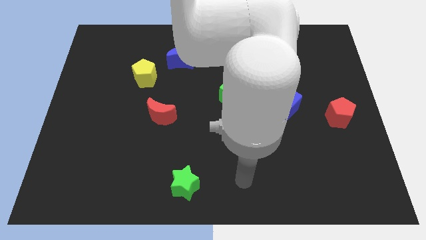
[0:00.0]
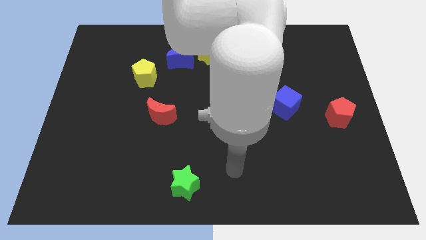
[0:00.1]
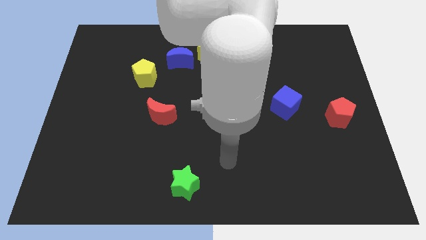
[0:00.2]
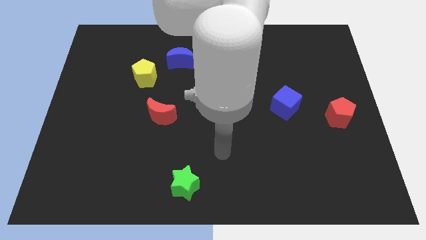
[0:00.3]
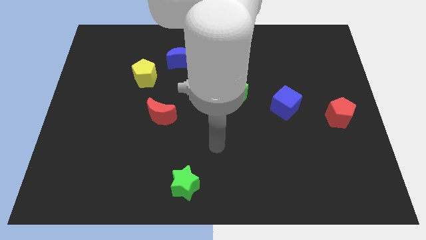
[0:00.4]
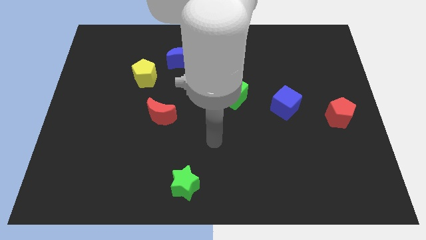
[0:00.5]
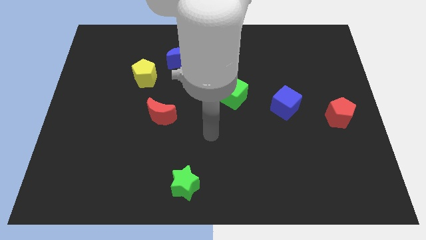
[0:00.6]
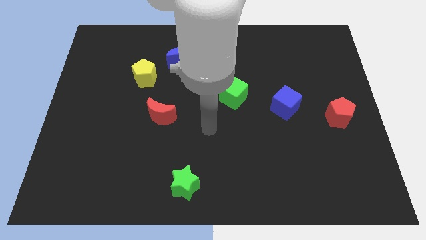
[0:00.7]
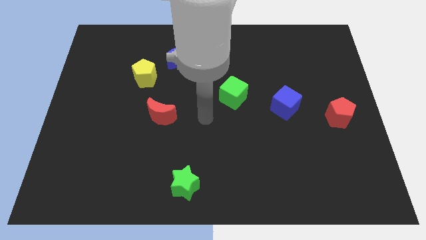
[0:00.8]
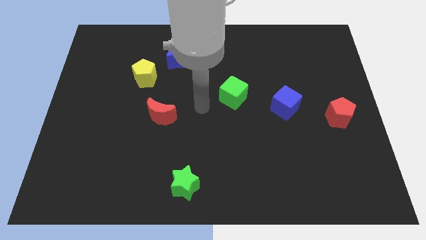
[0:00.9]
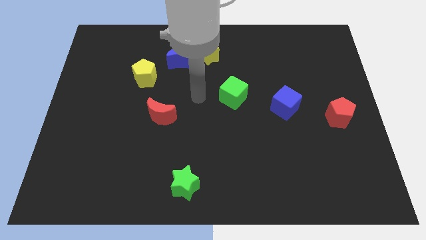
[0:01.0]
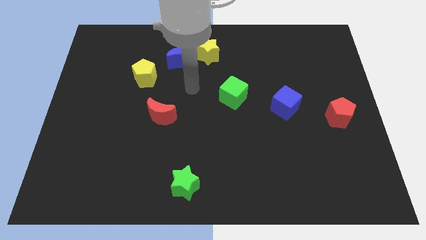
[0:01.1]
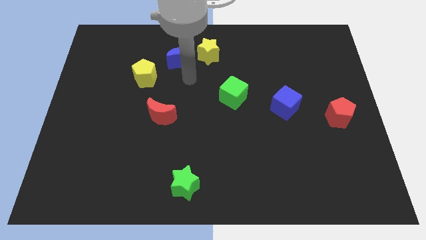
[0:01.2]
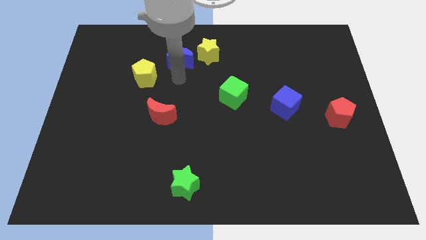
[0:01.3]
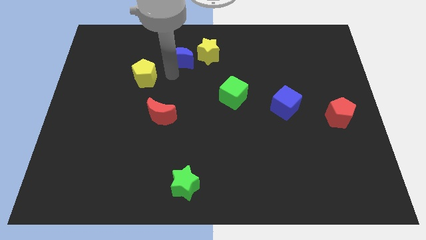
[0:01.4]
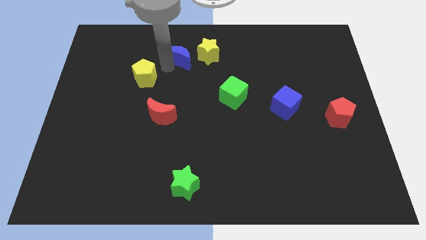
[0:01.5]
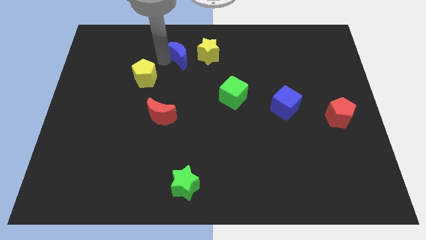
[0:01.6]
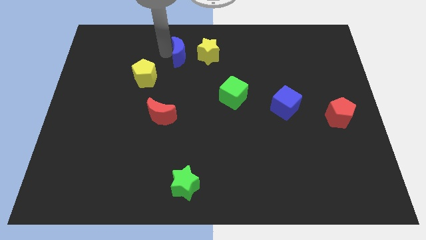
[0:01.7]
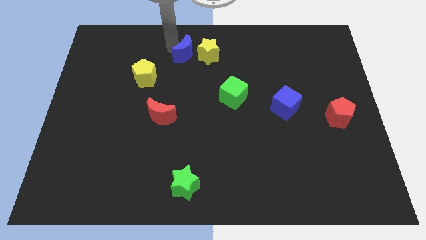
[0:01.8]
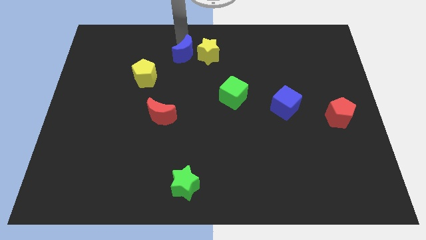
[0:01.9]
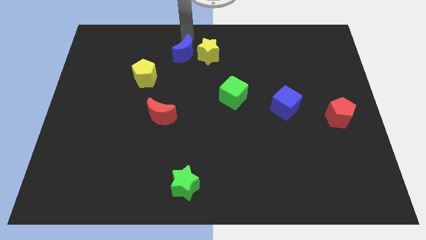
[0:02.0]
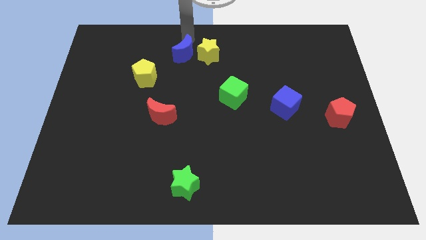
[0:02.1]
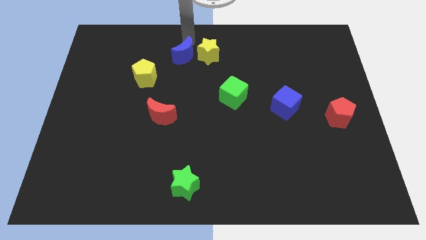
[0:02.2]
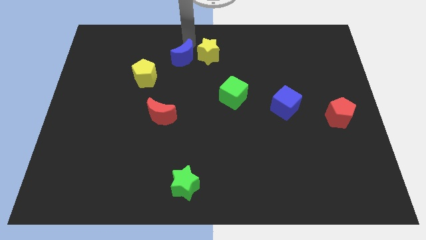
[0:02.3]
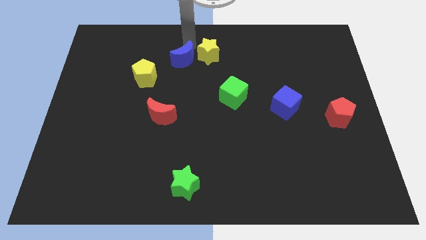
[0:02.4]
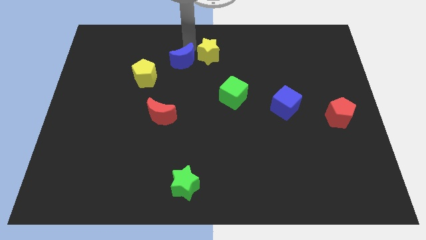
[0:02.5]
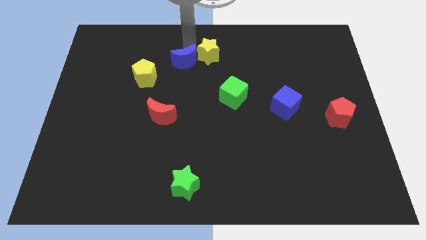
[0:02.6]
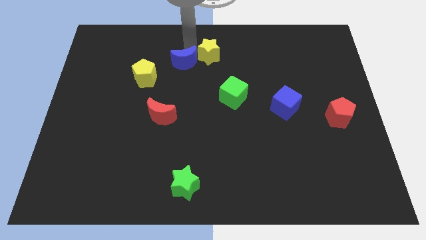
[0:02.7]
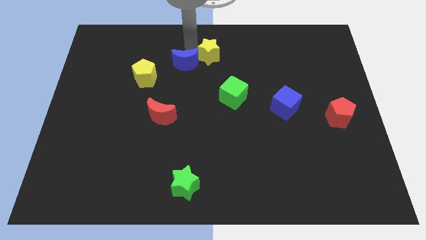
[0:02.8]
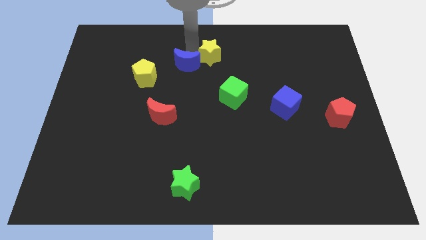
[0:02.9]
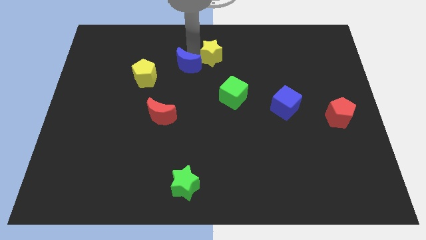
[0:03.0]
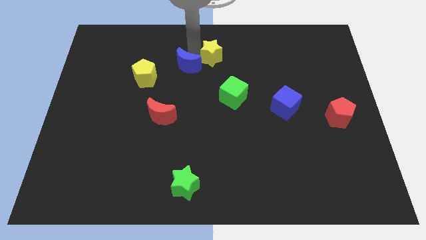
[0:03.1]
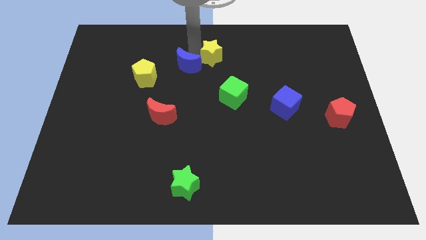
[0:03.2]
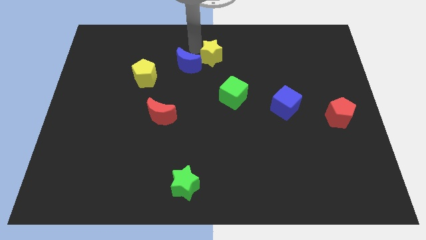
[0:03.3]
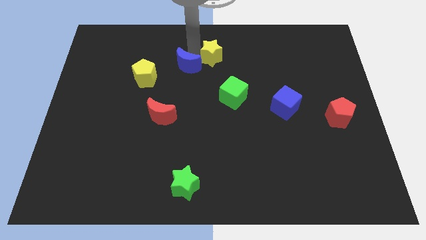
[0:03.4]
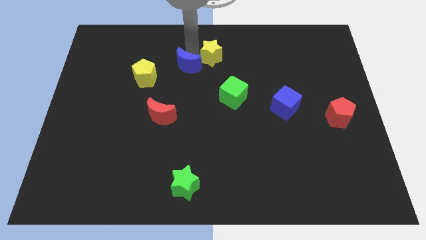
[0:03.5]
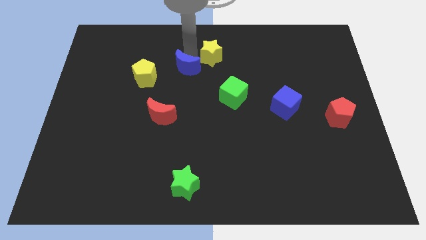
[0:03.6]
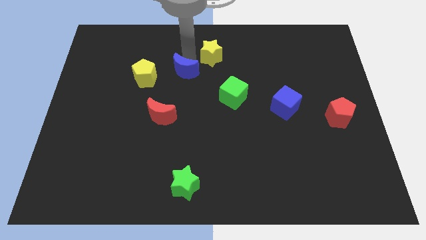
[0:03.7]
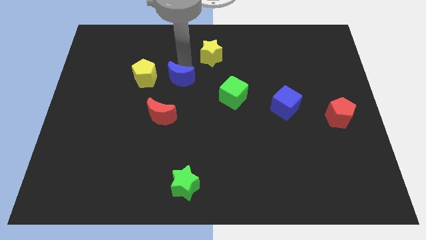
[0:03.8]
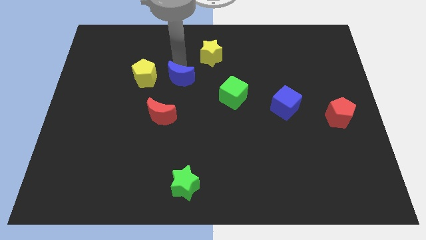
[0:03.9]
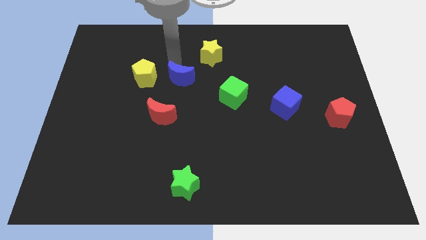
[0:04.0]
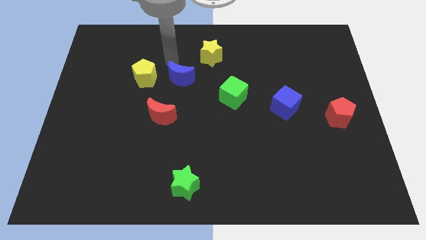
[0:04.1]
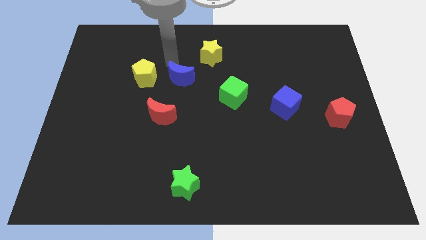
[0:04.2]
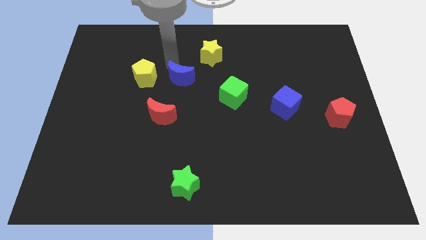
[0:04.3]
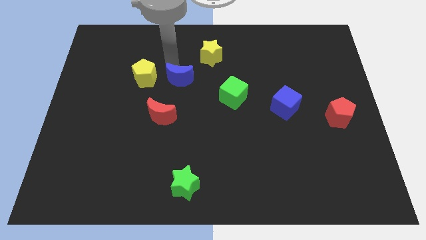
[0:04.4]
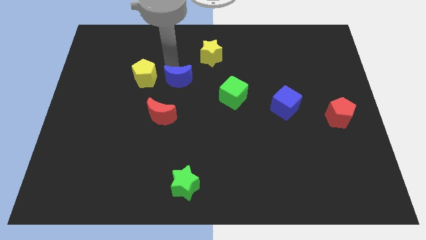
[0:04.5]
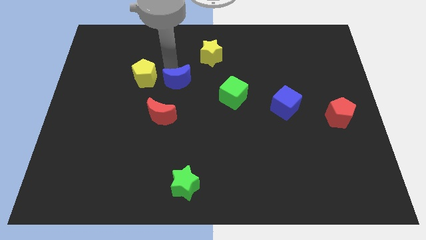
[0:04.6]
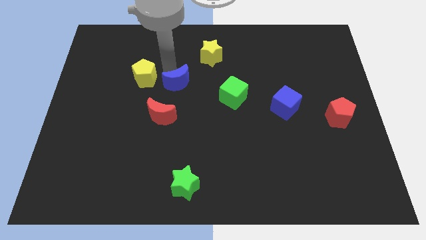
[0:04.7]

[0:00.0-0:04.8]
move the blue moon just left of the green cube

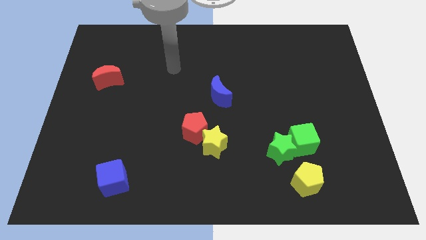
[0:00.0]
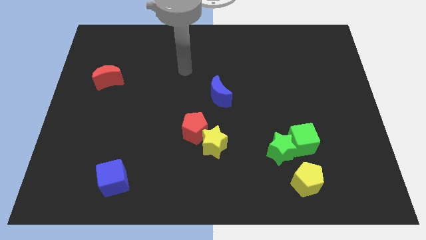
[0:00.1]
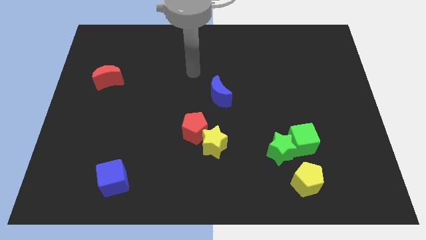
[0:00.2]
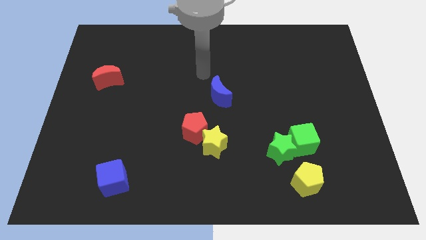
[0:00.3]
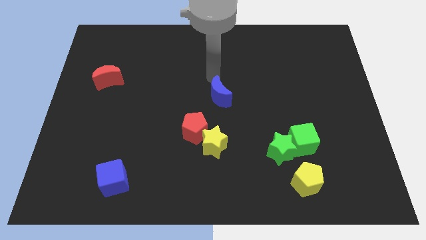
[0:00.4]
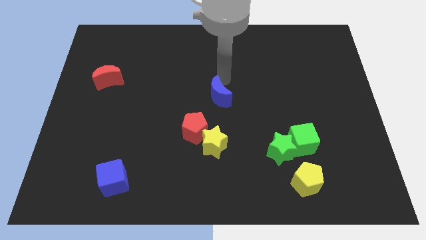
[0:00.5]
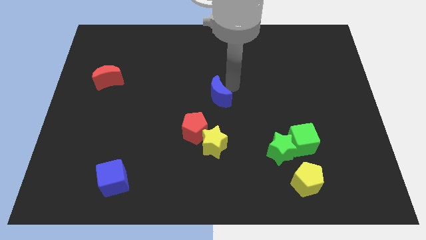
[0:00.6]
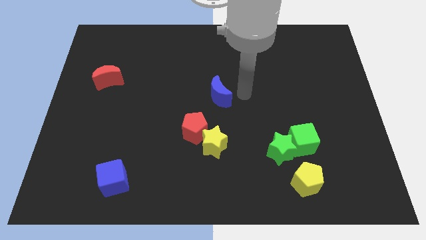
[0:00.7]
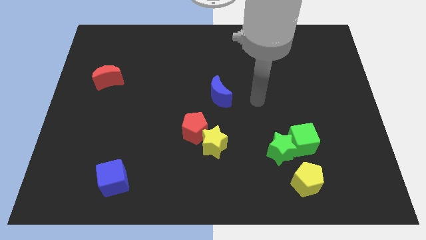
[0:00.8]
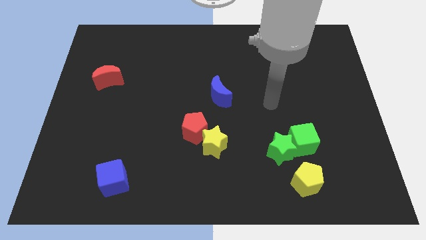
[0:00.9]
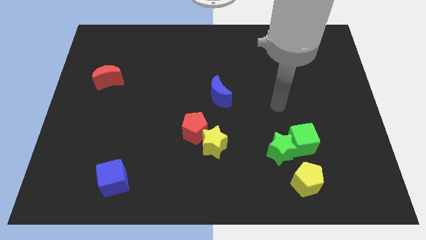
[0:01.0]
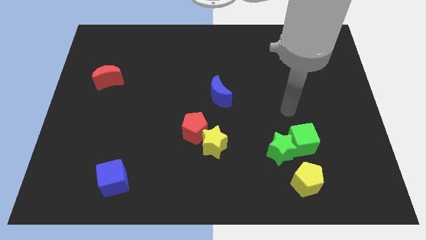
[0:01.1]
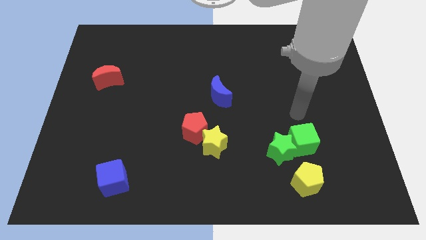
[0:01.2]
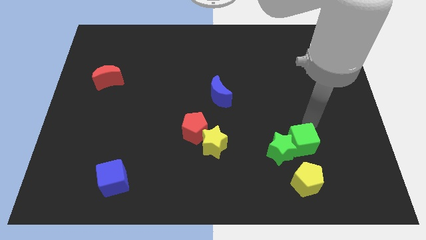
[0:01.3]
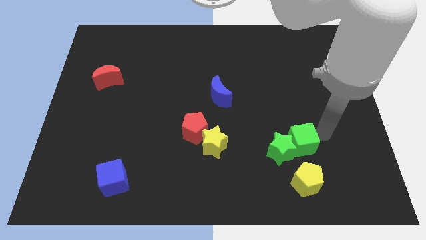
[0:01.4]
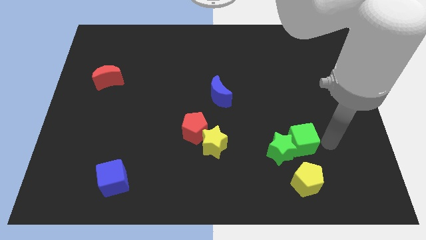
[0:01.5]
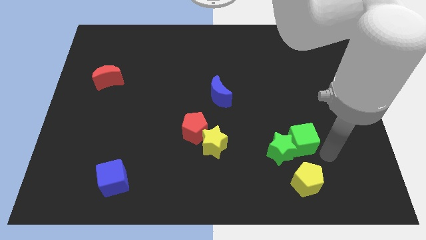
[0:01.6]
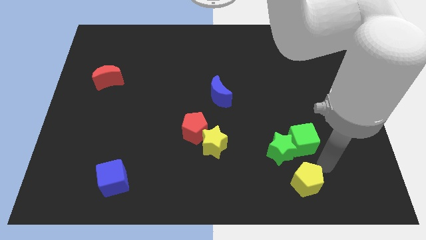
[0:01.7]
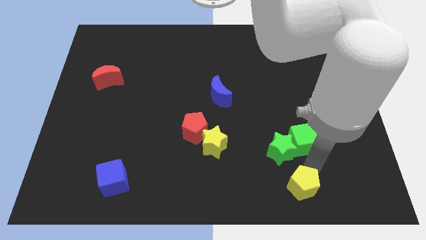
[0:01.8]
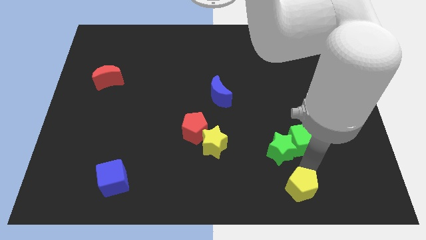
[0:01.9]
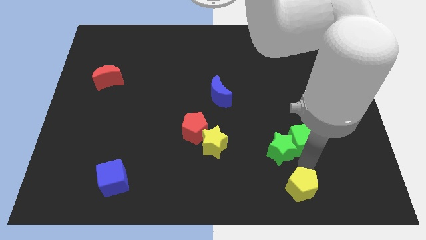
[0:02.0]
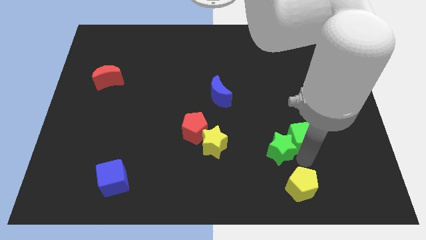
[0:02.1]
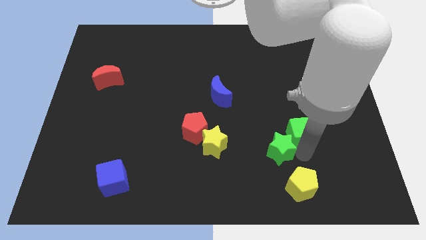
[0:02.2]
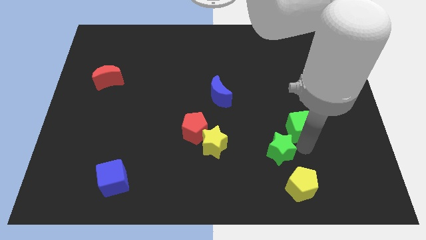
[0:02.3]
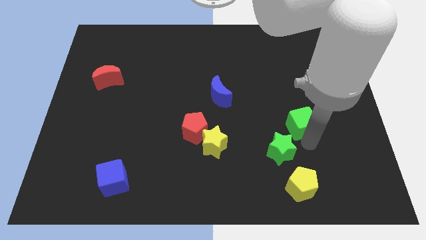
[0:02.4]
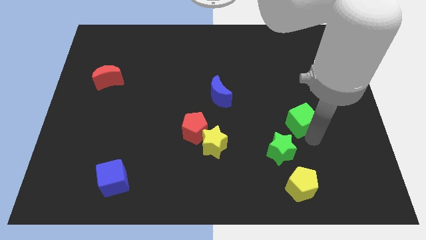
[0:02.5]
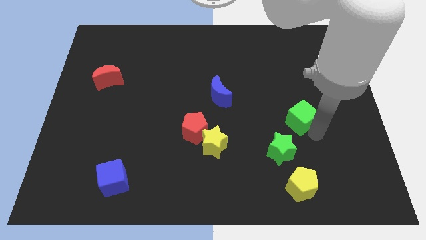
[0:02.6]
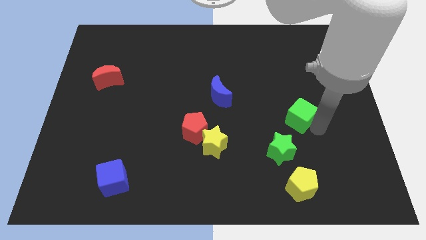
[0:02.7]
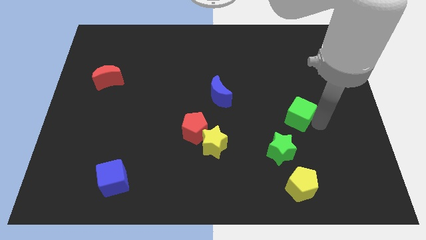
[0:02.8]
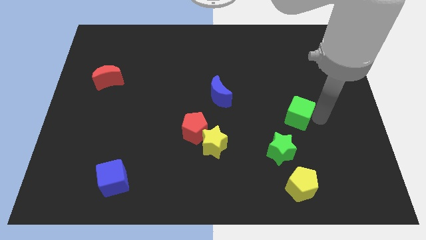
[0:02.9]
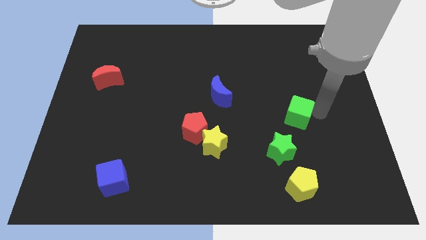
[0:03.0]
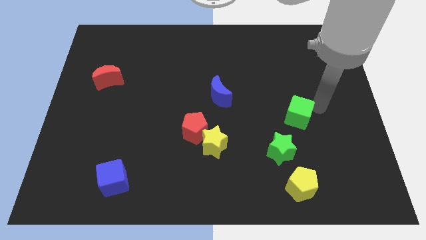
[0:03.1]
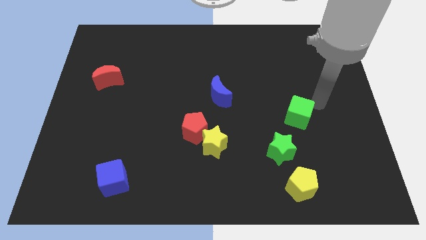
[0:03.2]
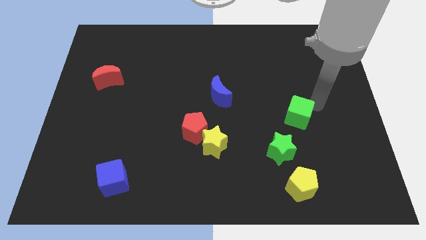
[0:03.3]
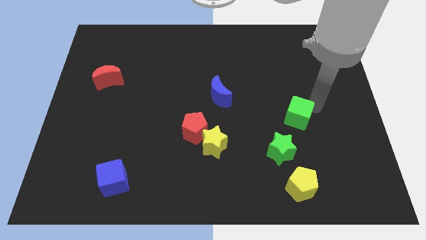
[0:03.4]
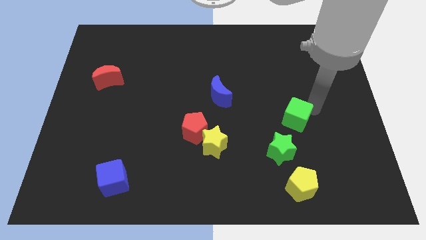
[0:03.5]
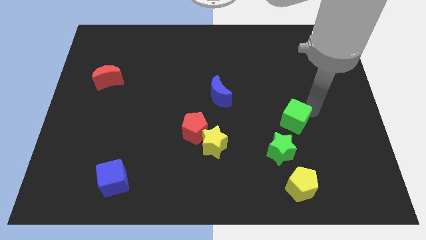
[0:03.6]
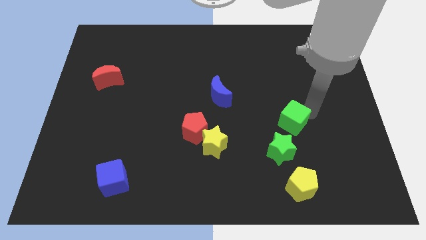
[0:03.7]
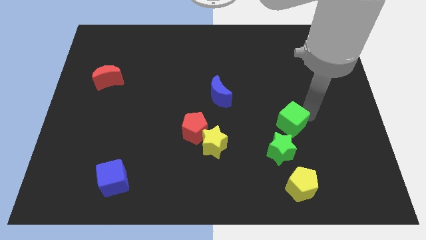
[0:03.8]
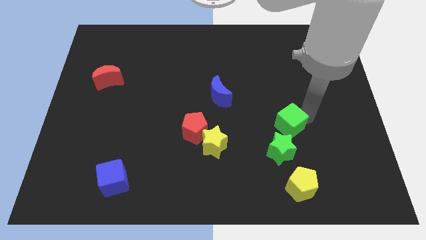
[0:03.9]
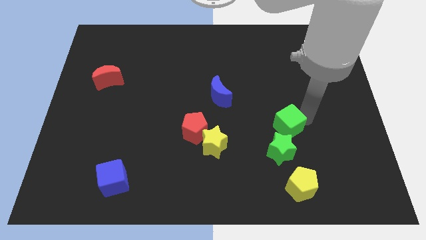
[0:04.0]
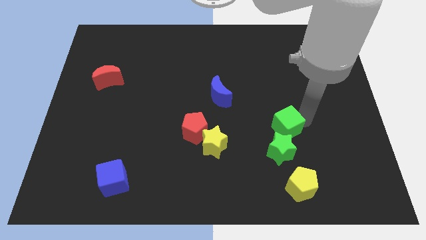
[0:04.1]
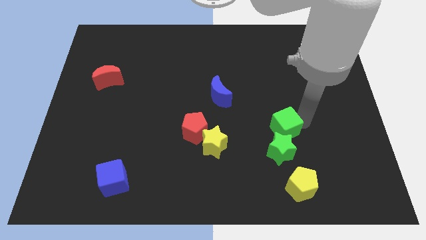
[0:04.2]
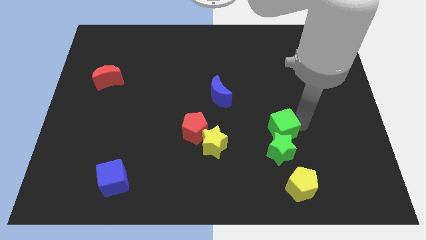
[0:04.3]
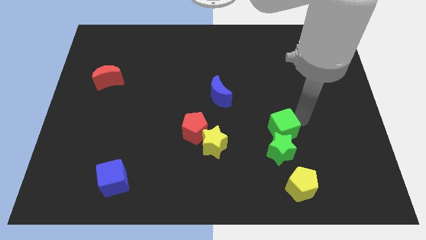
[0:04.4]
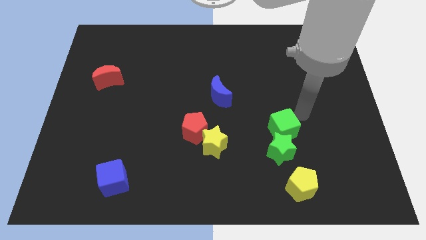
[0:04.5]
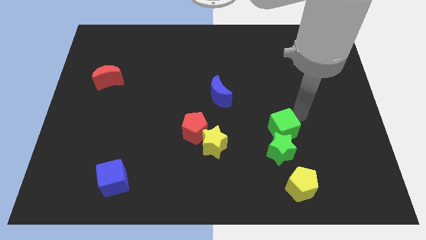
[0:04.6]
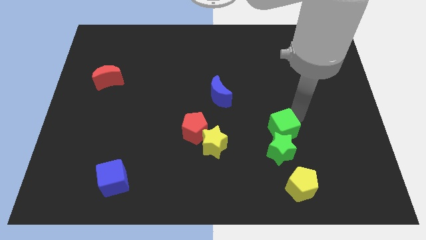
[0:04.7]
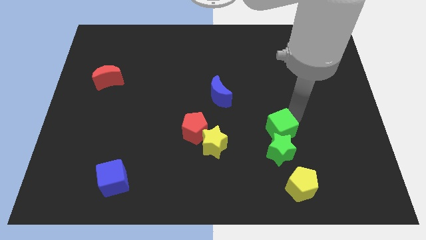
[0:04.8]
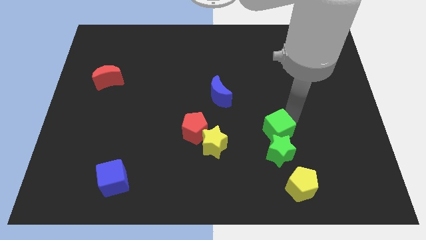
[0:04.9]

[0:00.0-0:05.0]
move the green cube right of the yellow star
